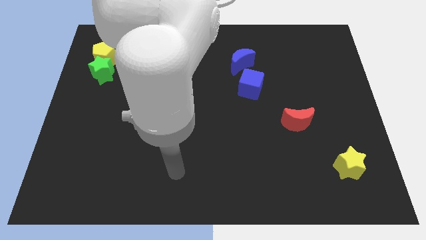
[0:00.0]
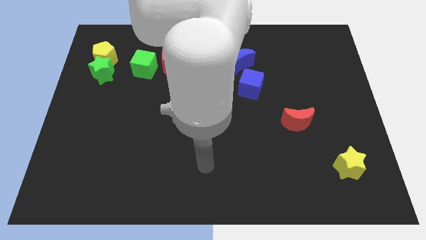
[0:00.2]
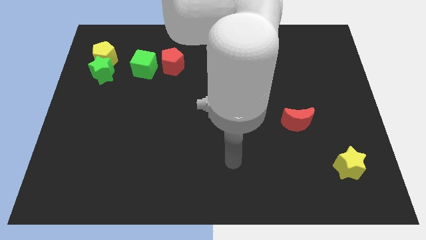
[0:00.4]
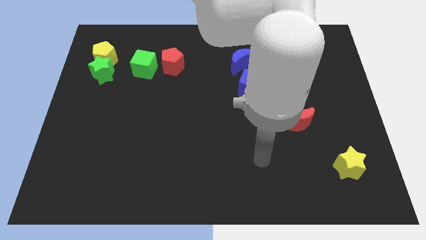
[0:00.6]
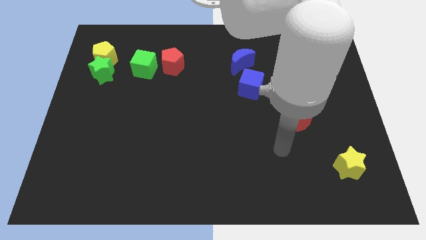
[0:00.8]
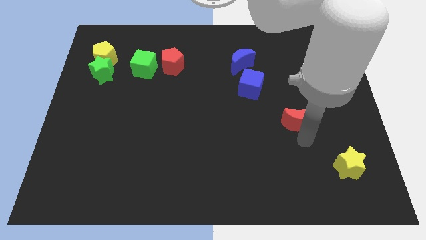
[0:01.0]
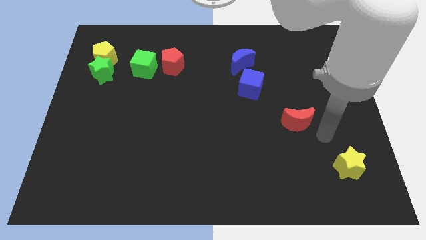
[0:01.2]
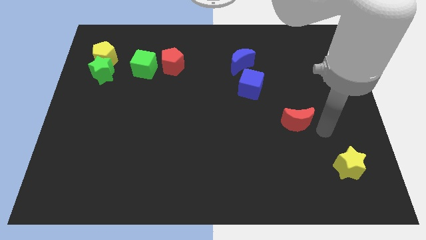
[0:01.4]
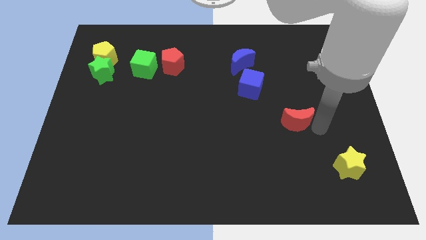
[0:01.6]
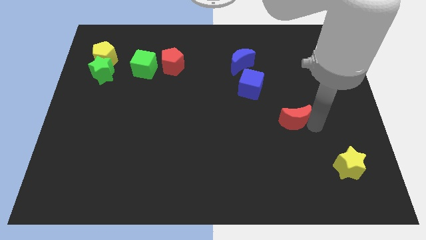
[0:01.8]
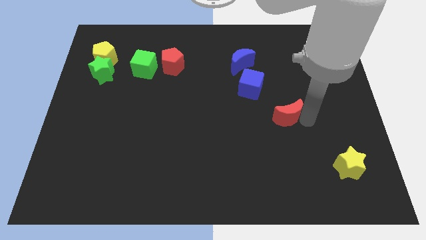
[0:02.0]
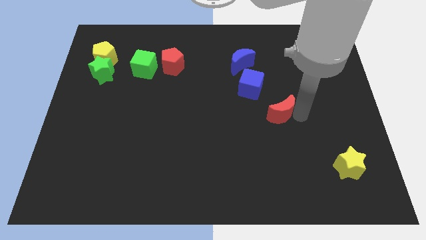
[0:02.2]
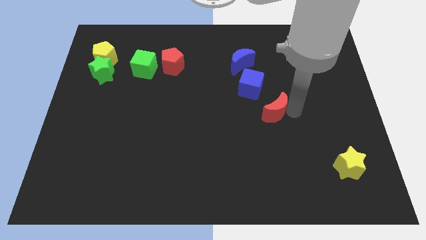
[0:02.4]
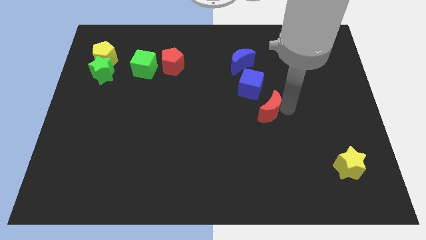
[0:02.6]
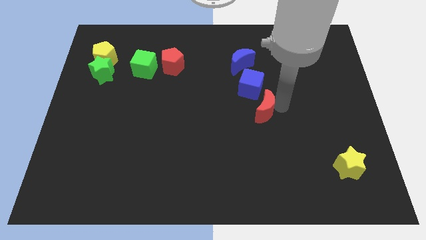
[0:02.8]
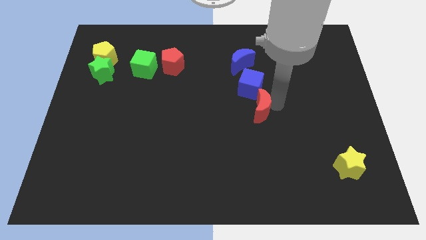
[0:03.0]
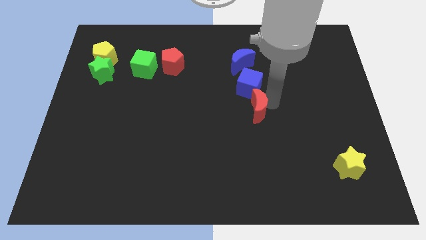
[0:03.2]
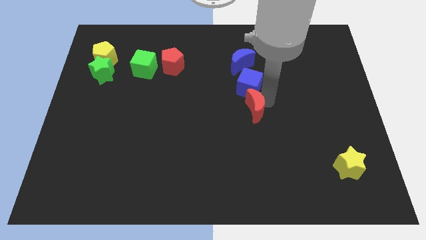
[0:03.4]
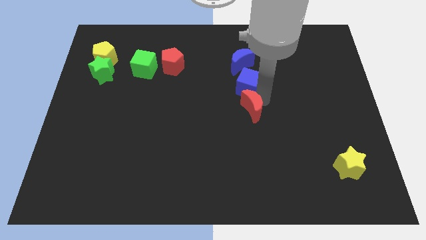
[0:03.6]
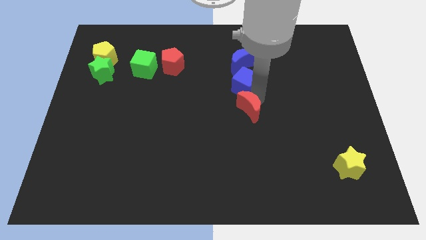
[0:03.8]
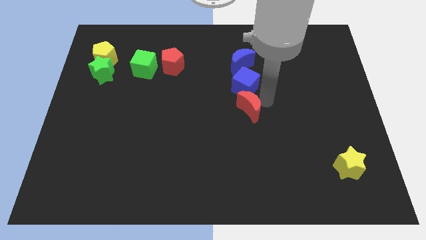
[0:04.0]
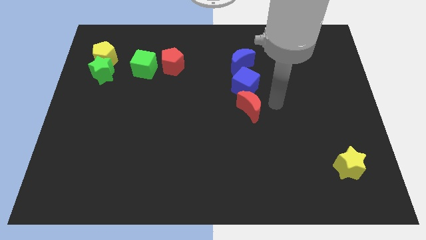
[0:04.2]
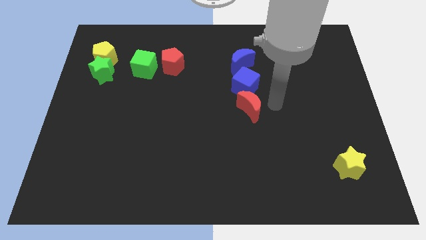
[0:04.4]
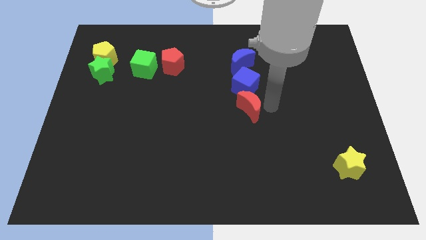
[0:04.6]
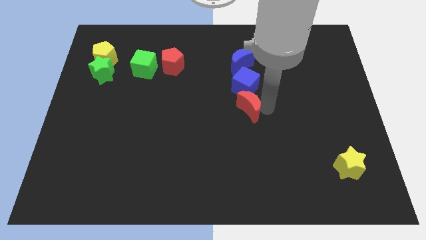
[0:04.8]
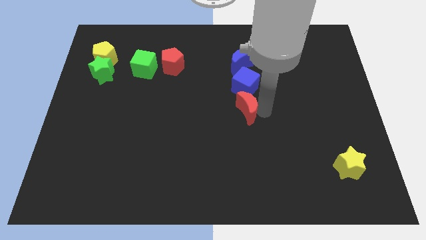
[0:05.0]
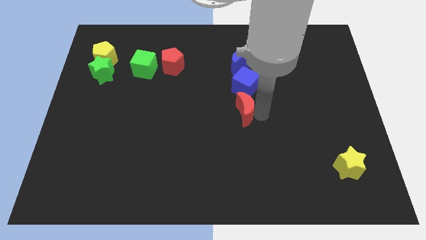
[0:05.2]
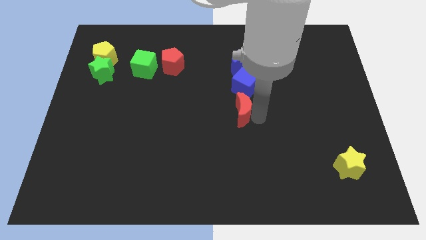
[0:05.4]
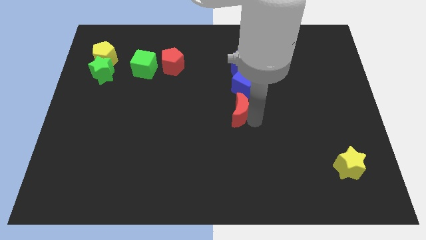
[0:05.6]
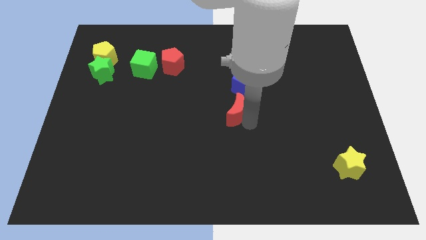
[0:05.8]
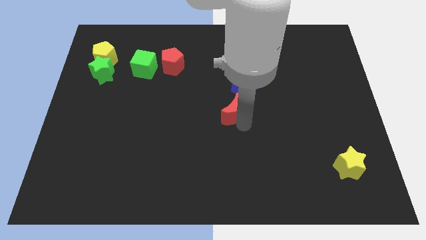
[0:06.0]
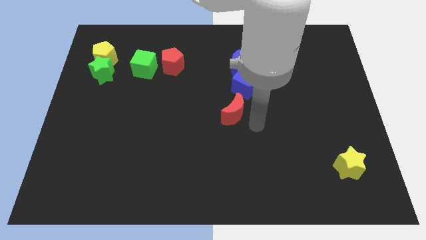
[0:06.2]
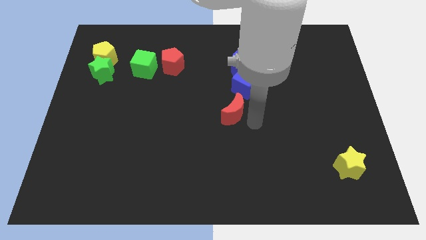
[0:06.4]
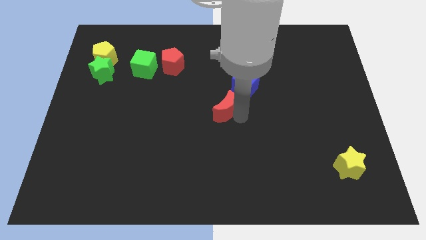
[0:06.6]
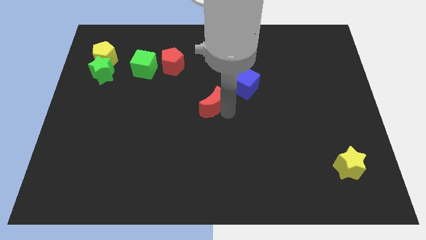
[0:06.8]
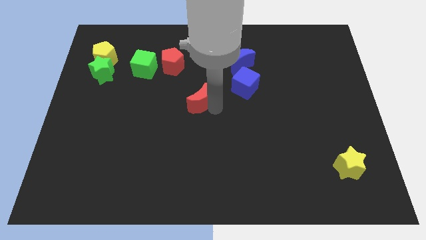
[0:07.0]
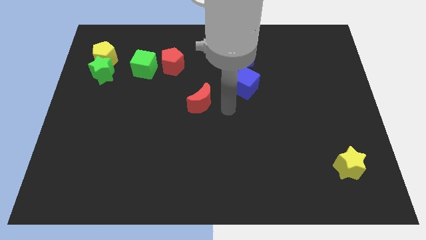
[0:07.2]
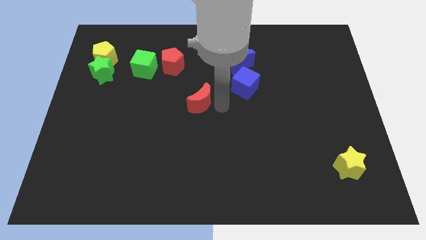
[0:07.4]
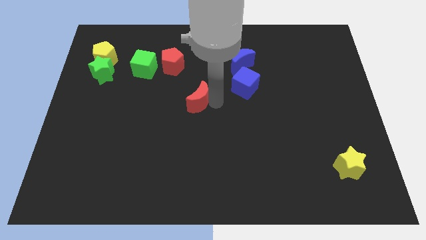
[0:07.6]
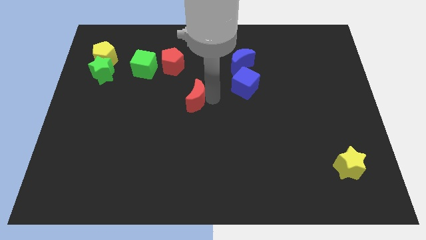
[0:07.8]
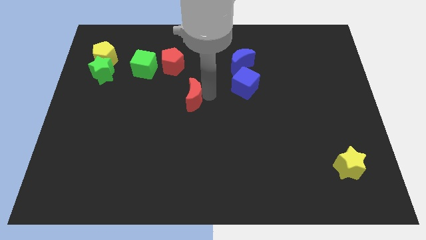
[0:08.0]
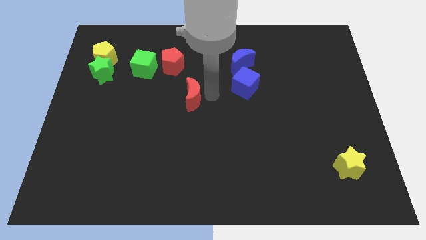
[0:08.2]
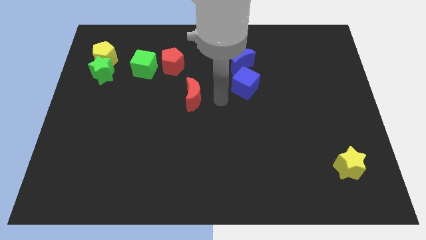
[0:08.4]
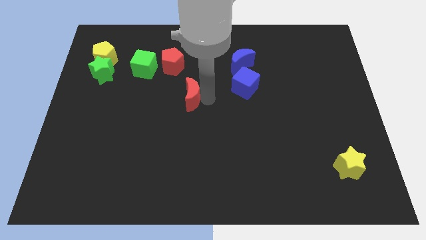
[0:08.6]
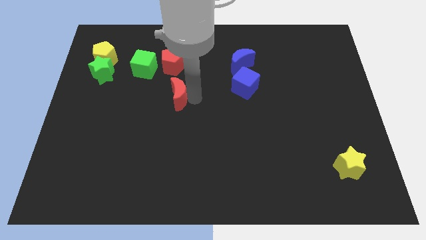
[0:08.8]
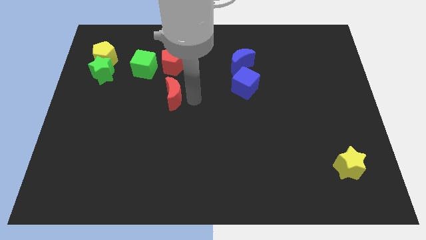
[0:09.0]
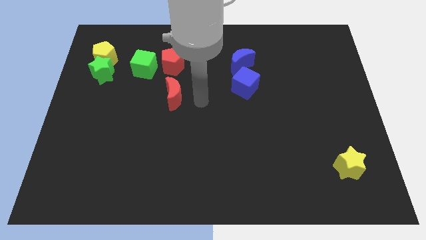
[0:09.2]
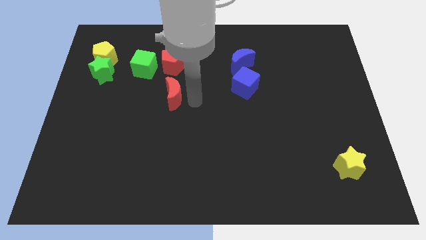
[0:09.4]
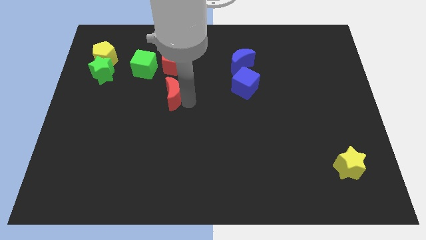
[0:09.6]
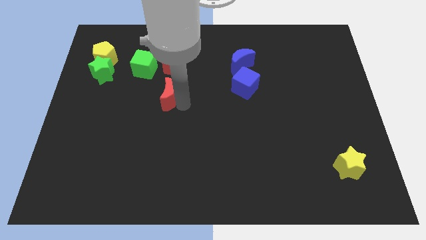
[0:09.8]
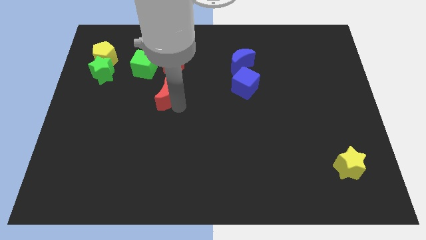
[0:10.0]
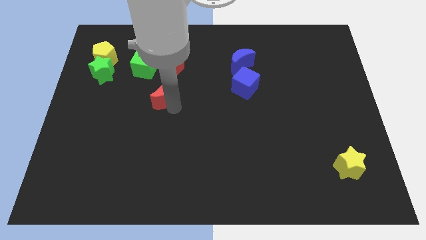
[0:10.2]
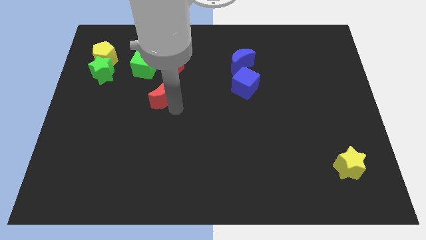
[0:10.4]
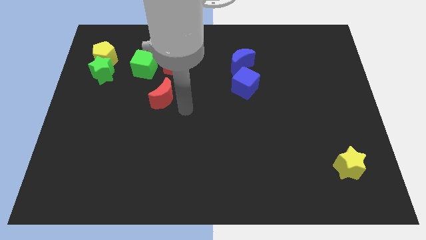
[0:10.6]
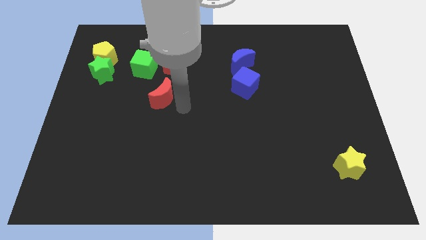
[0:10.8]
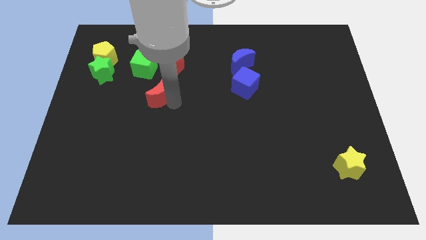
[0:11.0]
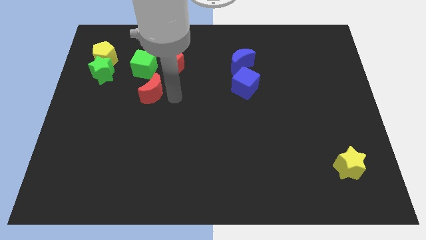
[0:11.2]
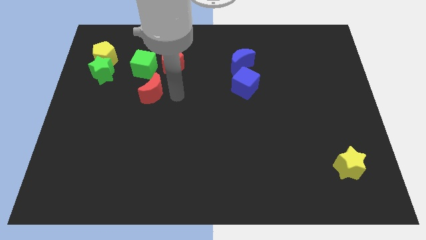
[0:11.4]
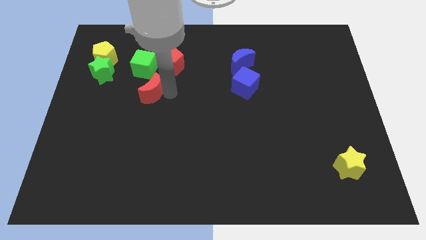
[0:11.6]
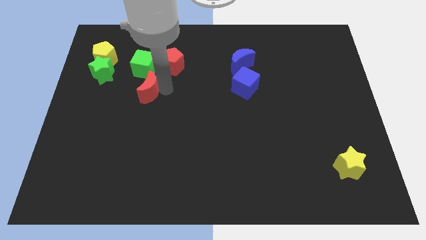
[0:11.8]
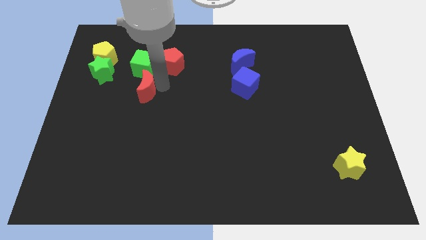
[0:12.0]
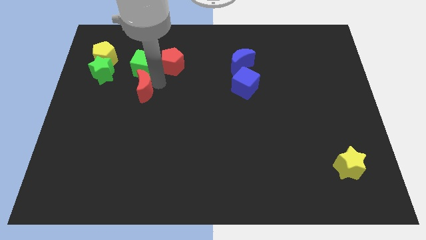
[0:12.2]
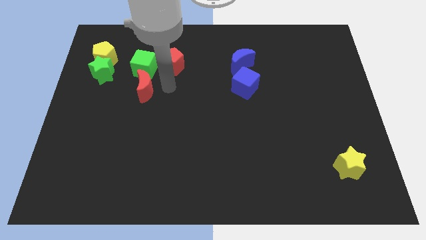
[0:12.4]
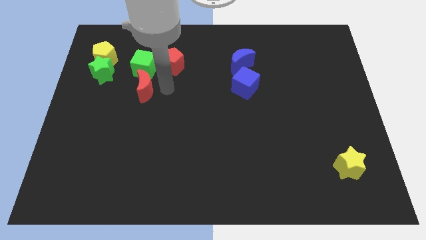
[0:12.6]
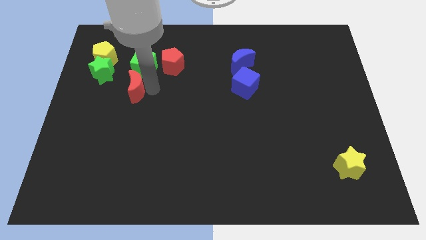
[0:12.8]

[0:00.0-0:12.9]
slide the red moon to the bottom right side of the green star

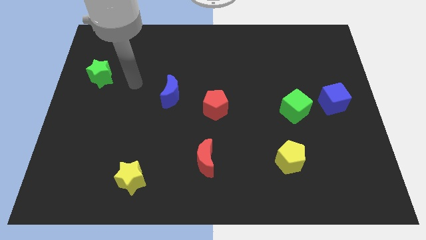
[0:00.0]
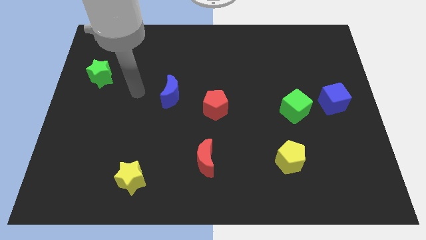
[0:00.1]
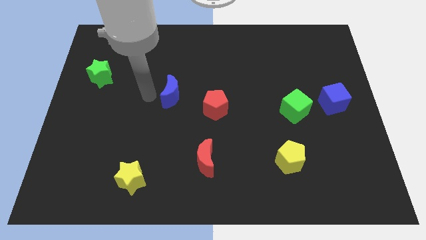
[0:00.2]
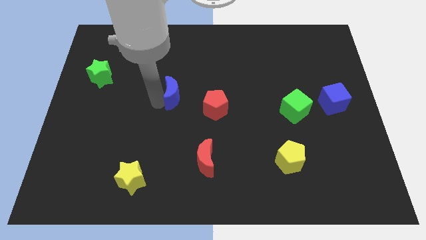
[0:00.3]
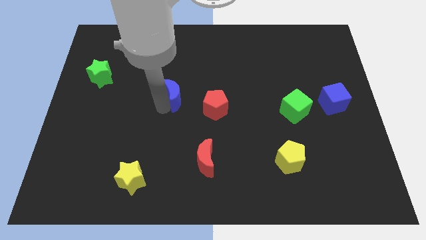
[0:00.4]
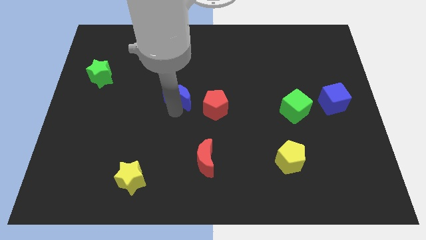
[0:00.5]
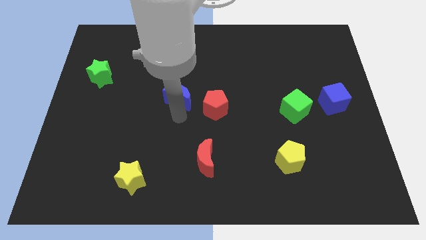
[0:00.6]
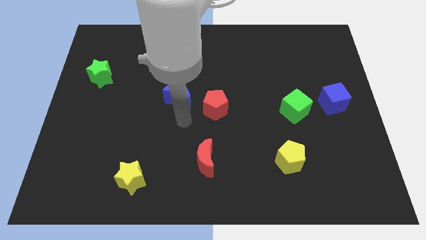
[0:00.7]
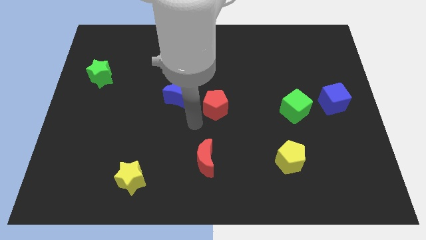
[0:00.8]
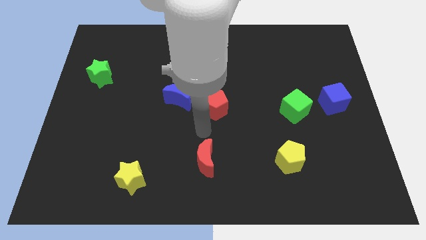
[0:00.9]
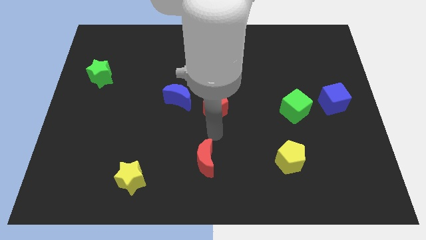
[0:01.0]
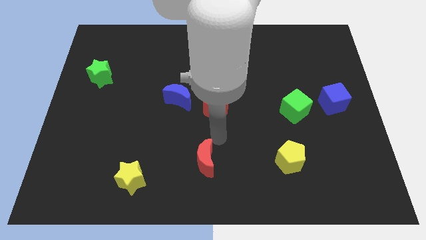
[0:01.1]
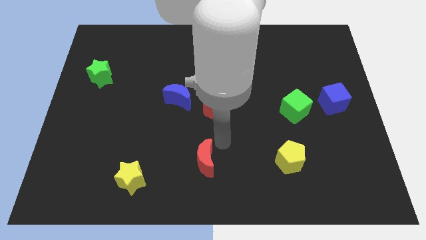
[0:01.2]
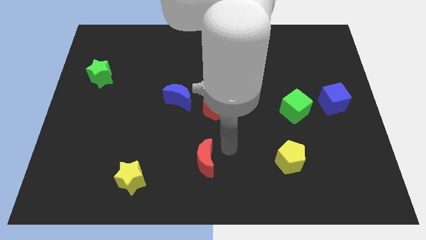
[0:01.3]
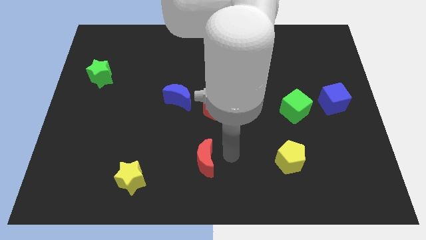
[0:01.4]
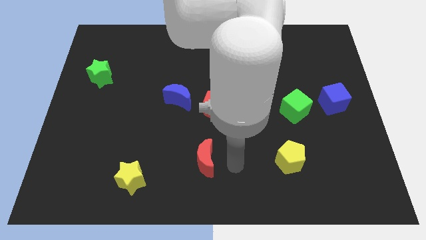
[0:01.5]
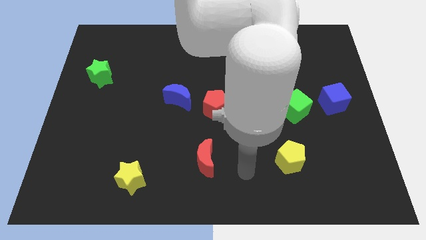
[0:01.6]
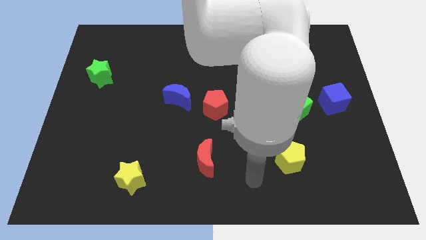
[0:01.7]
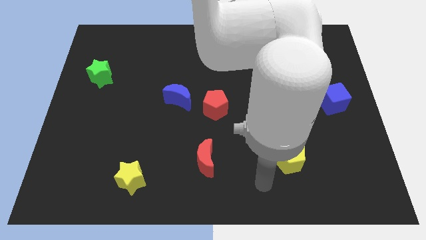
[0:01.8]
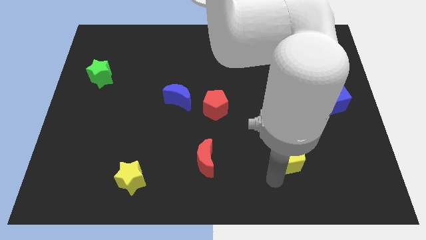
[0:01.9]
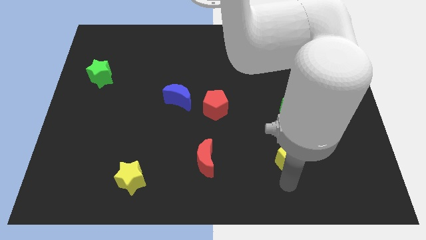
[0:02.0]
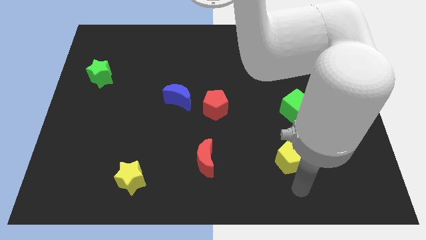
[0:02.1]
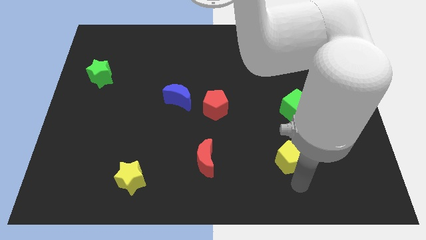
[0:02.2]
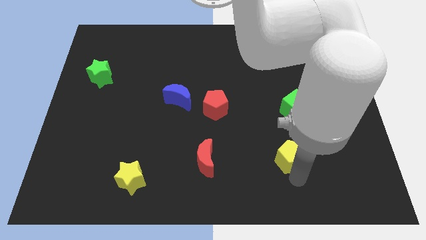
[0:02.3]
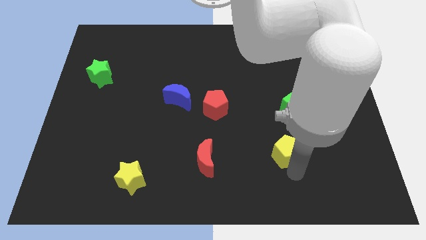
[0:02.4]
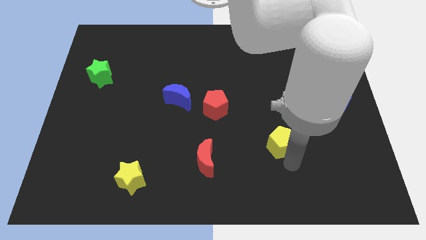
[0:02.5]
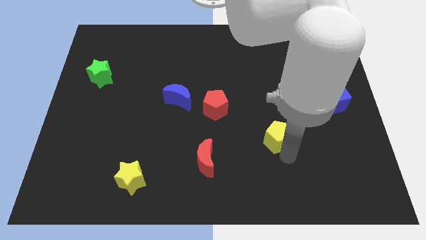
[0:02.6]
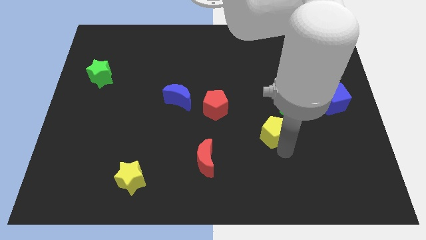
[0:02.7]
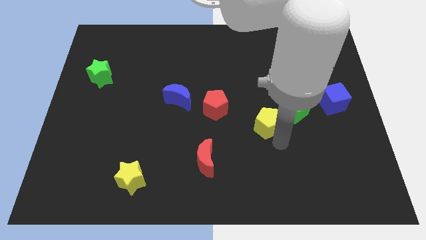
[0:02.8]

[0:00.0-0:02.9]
move the yellow pentagon to the left of the green cube
